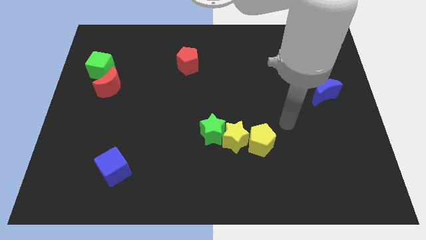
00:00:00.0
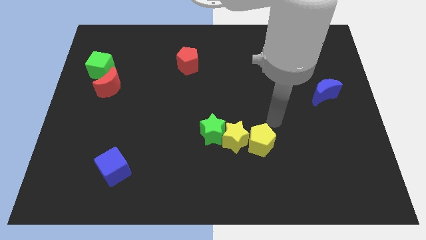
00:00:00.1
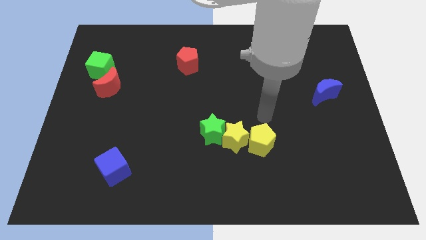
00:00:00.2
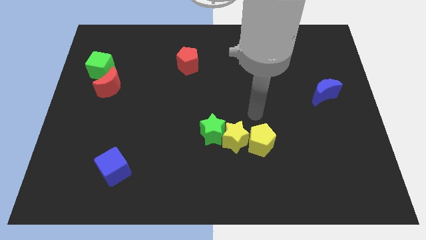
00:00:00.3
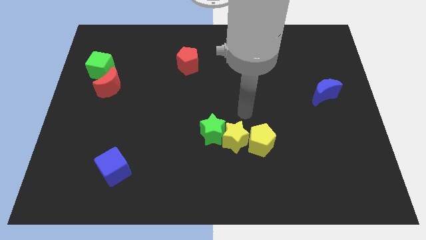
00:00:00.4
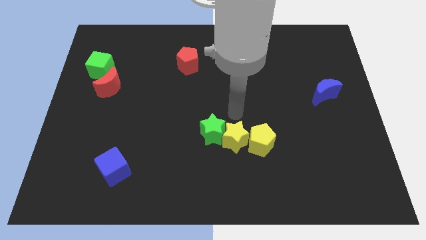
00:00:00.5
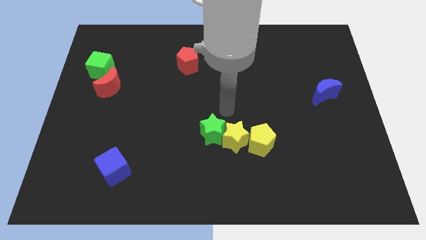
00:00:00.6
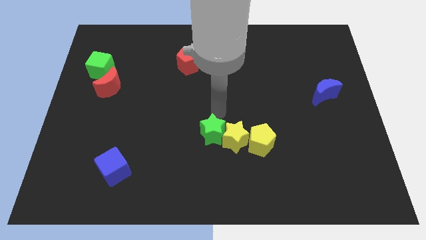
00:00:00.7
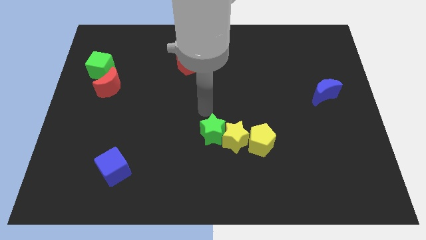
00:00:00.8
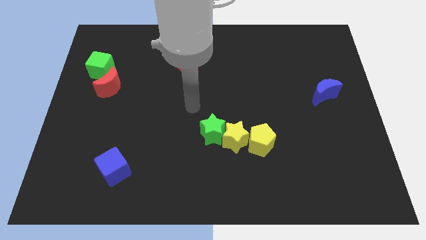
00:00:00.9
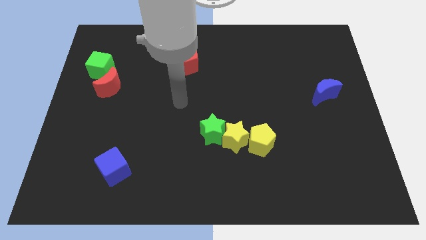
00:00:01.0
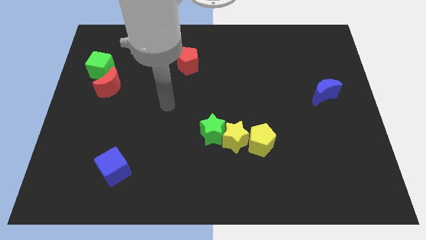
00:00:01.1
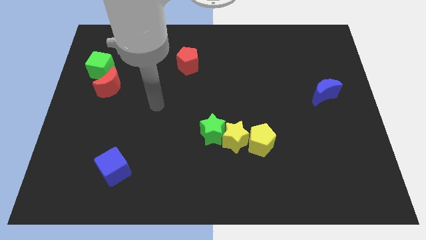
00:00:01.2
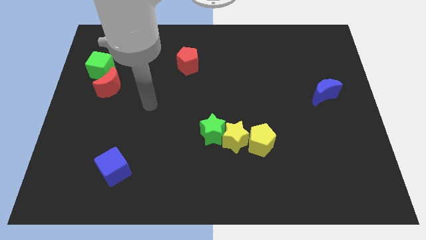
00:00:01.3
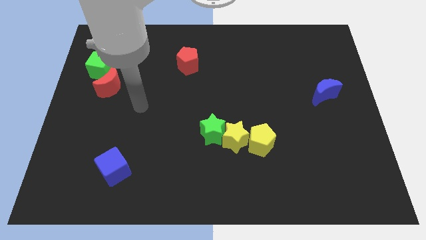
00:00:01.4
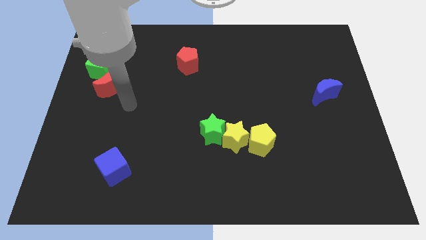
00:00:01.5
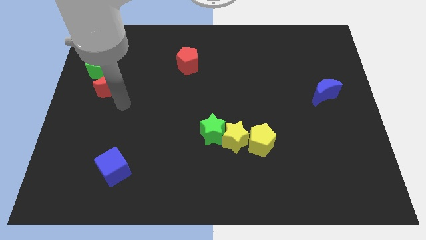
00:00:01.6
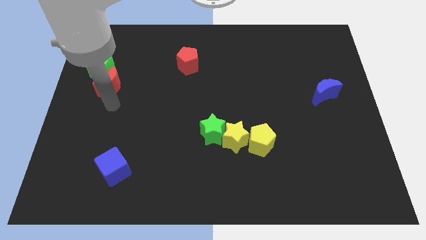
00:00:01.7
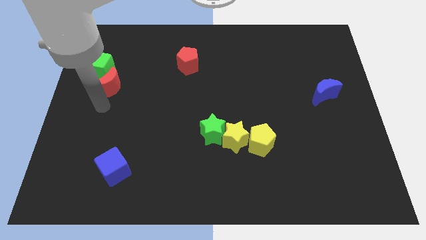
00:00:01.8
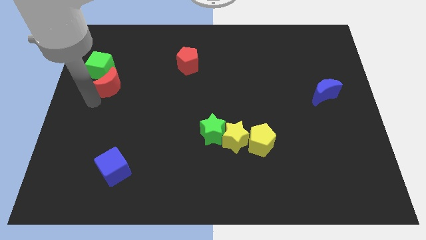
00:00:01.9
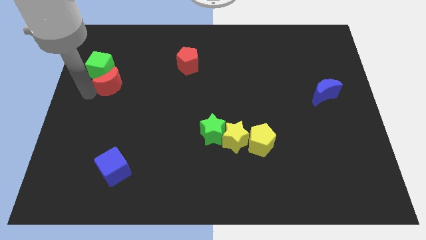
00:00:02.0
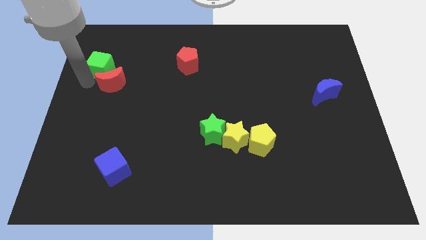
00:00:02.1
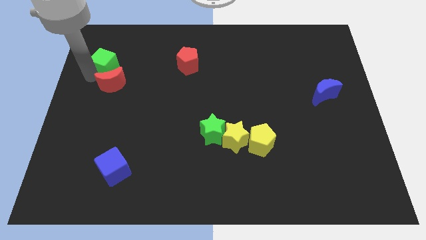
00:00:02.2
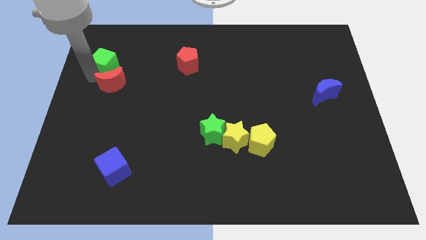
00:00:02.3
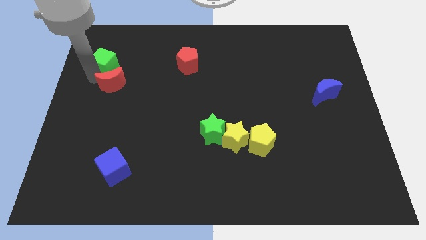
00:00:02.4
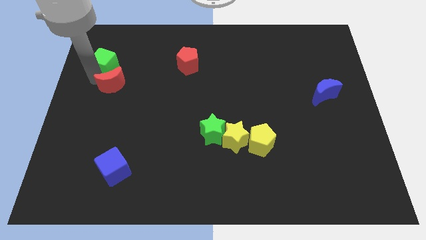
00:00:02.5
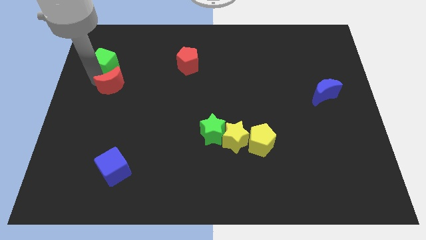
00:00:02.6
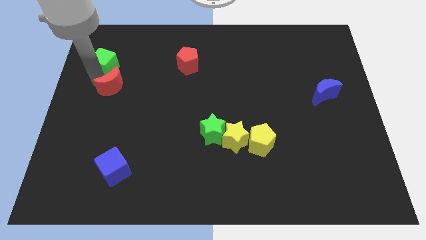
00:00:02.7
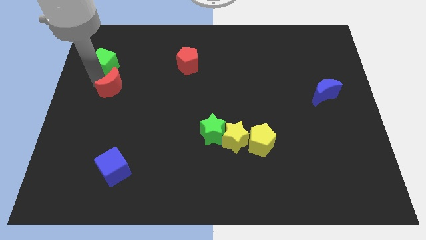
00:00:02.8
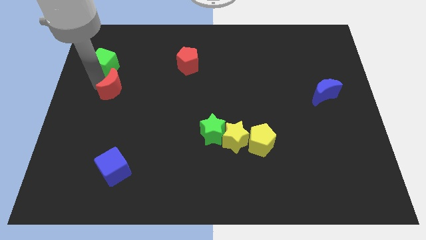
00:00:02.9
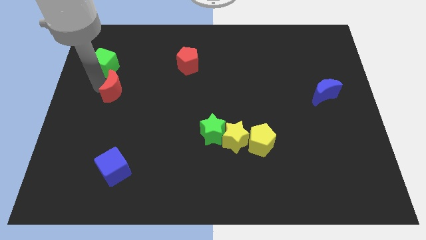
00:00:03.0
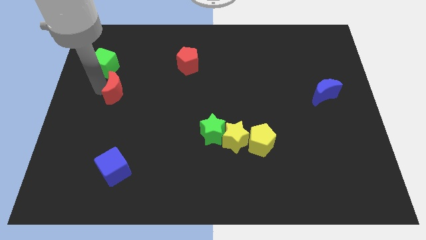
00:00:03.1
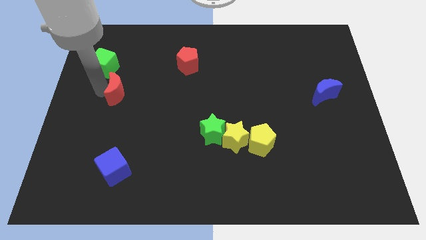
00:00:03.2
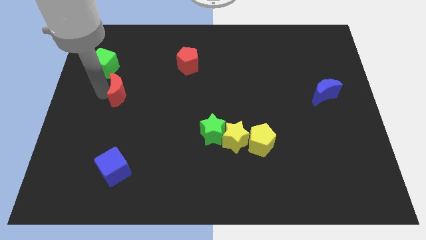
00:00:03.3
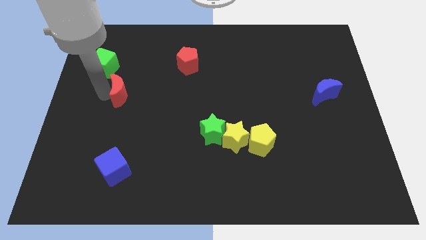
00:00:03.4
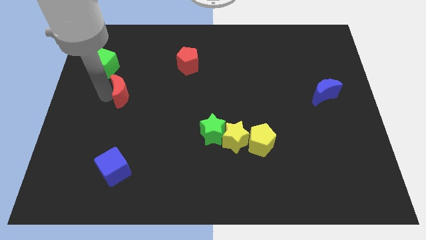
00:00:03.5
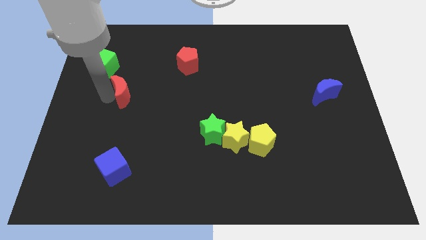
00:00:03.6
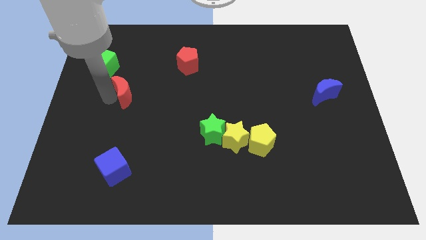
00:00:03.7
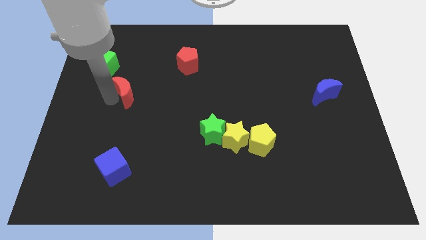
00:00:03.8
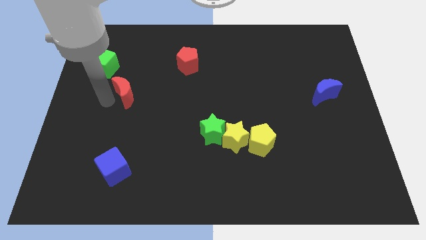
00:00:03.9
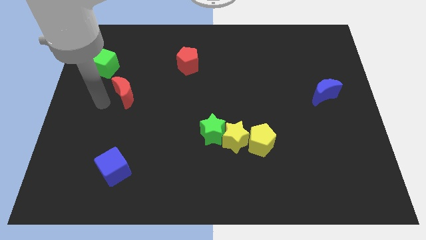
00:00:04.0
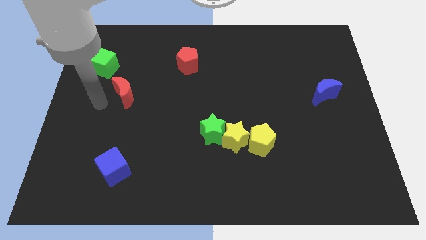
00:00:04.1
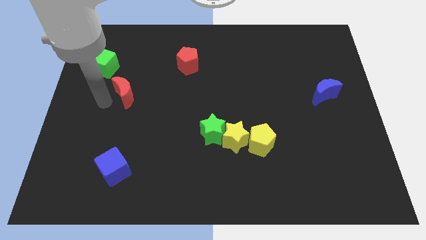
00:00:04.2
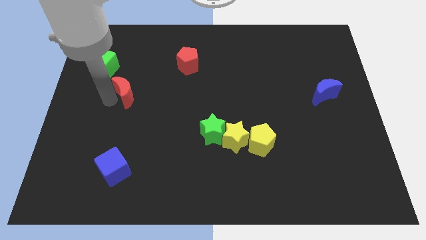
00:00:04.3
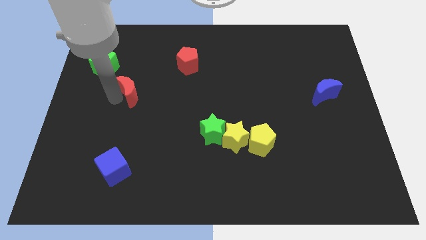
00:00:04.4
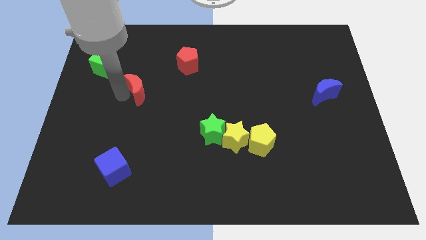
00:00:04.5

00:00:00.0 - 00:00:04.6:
push the red moon right a bit

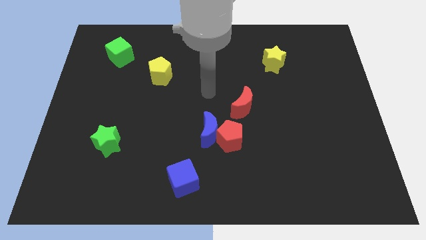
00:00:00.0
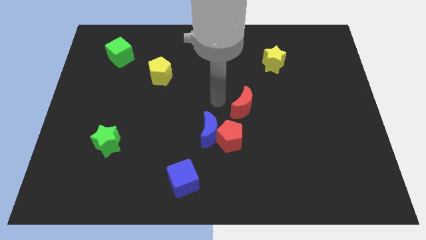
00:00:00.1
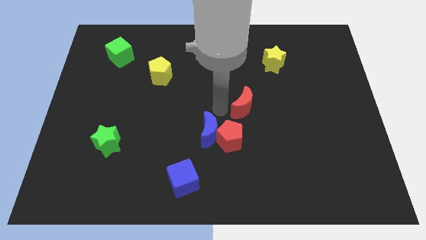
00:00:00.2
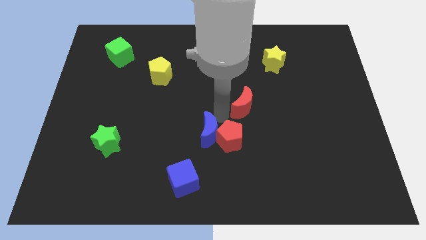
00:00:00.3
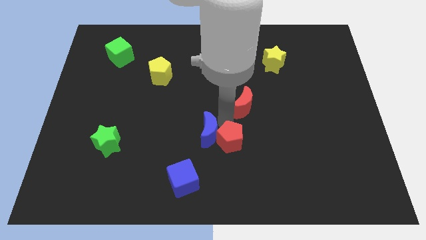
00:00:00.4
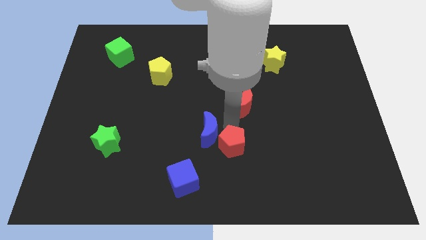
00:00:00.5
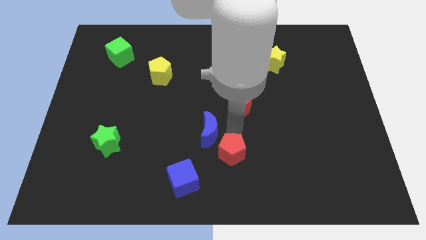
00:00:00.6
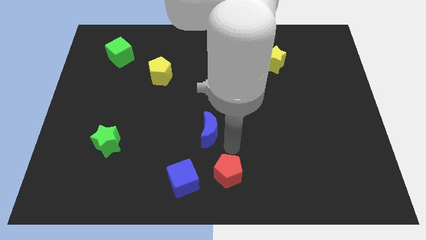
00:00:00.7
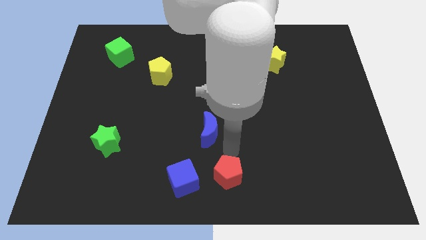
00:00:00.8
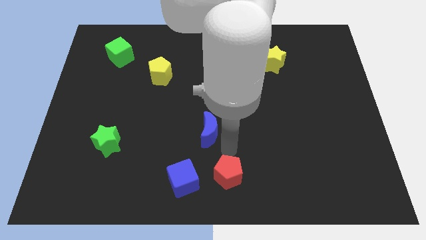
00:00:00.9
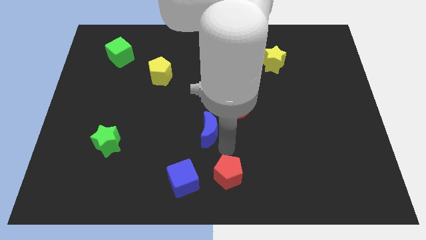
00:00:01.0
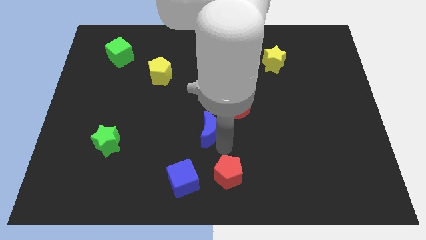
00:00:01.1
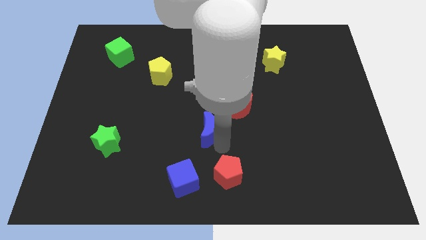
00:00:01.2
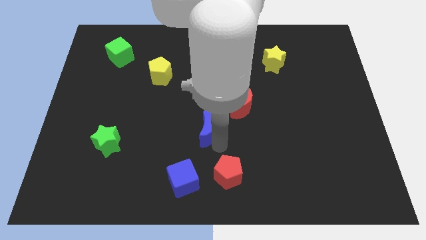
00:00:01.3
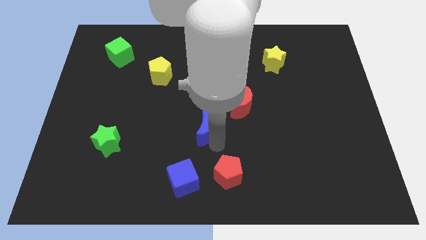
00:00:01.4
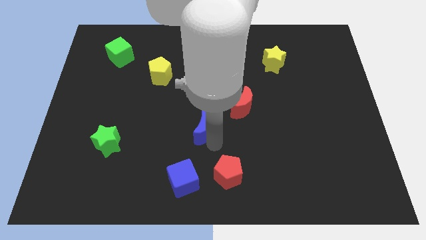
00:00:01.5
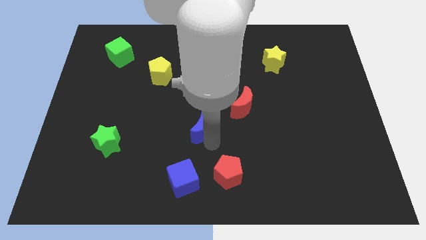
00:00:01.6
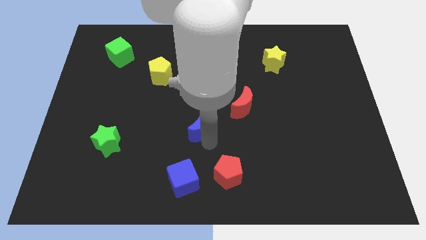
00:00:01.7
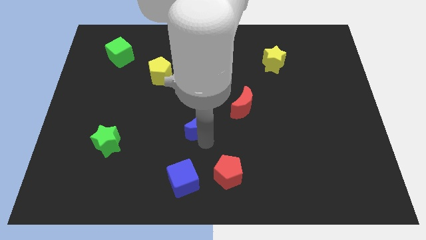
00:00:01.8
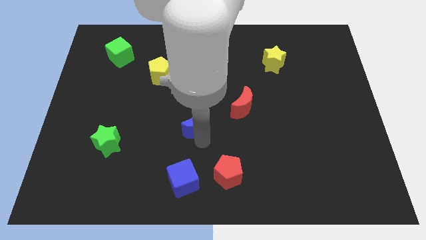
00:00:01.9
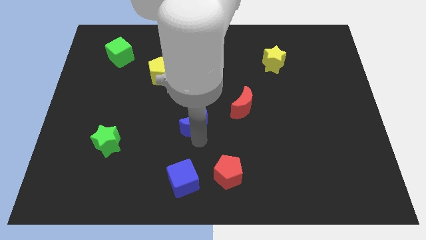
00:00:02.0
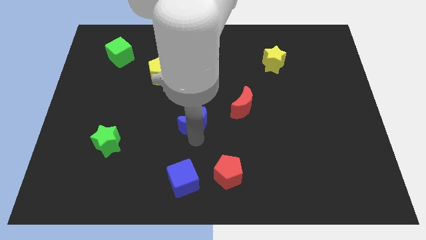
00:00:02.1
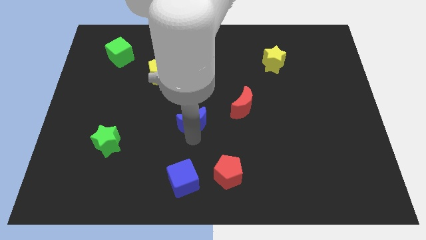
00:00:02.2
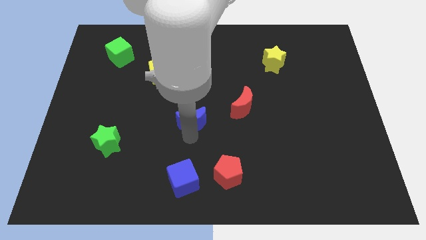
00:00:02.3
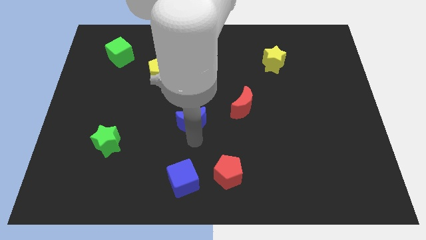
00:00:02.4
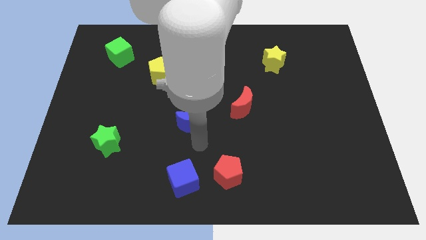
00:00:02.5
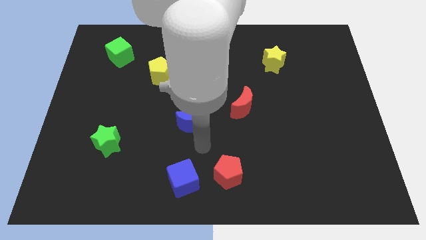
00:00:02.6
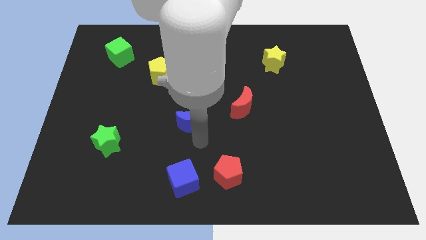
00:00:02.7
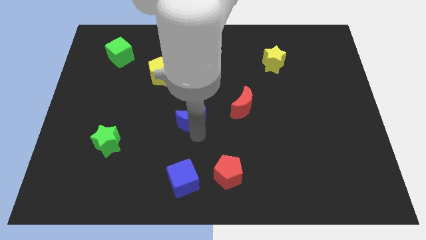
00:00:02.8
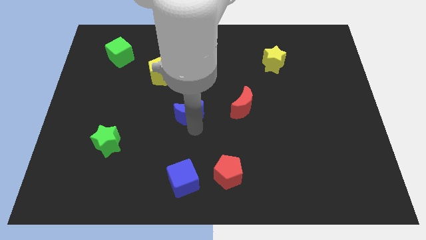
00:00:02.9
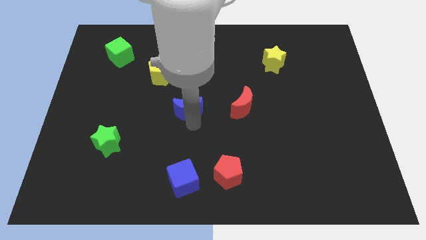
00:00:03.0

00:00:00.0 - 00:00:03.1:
slightly slide the blue moon diagonally upwards and left

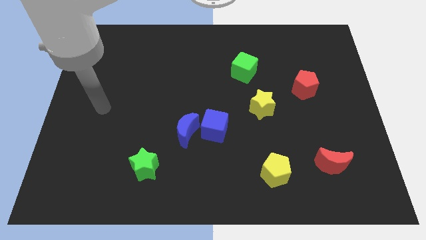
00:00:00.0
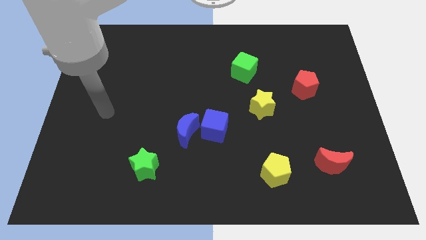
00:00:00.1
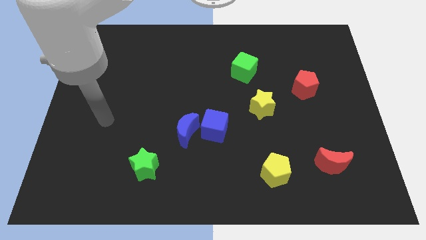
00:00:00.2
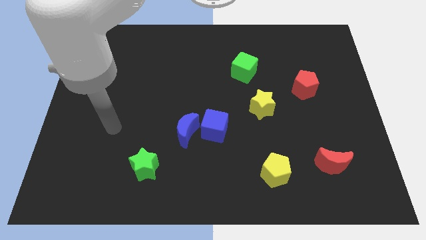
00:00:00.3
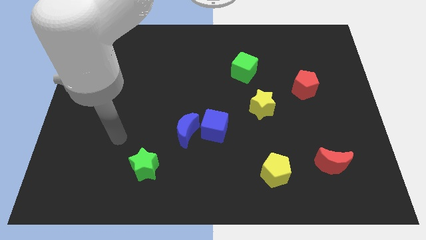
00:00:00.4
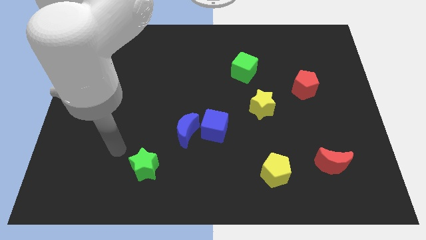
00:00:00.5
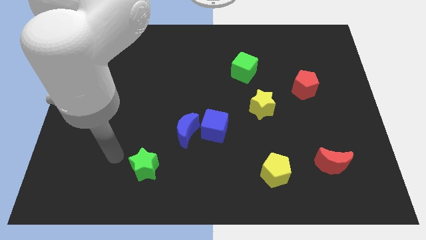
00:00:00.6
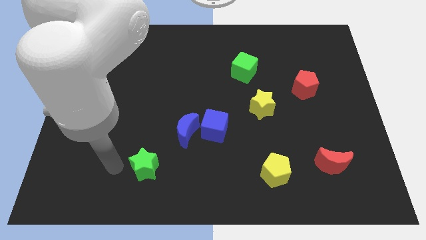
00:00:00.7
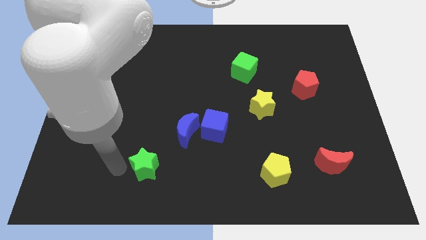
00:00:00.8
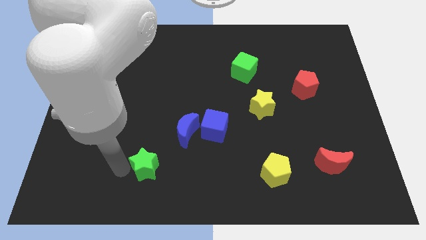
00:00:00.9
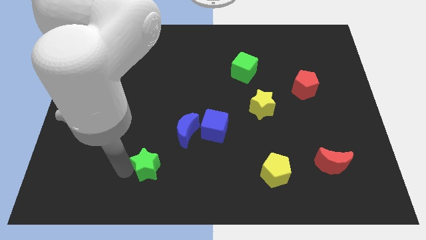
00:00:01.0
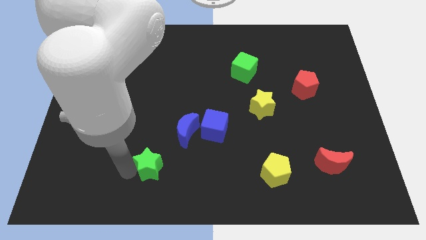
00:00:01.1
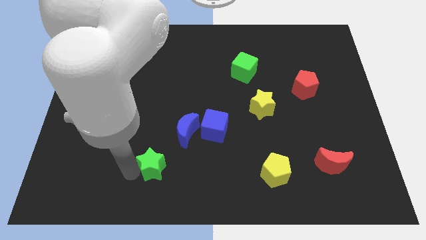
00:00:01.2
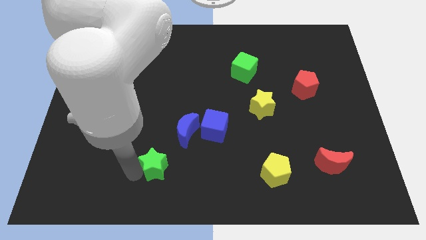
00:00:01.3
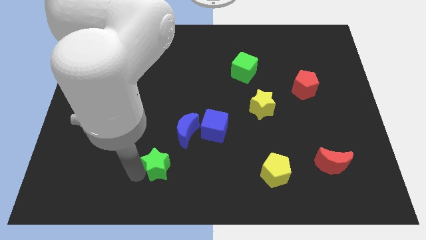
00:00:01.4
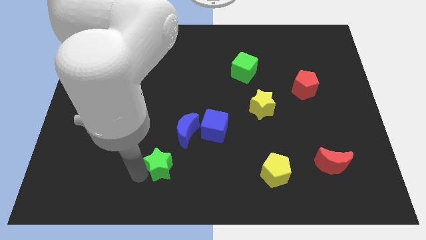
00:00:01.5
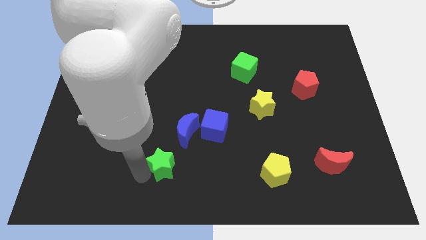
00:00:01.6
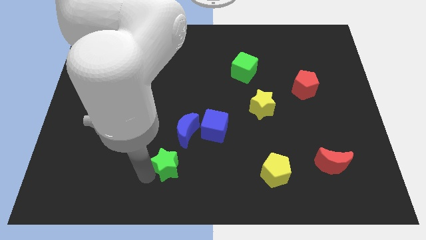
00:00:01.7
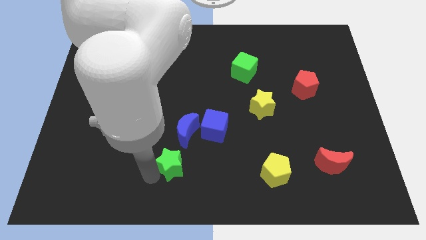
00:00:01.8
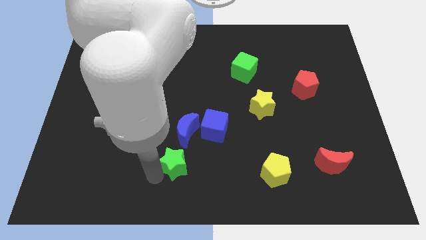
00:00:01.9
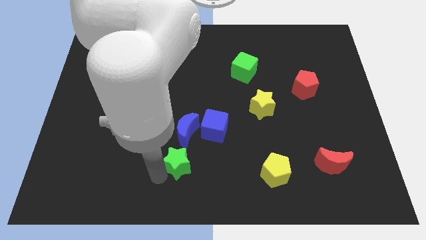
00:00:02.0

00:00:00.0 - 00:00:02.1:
slide the green star right a little
